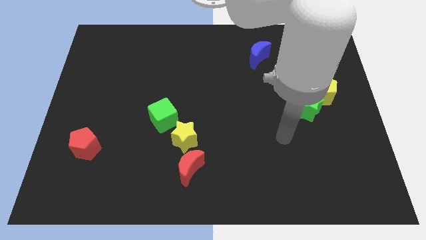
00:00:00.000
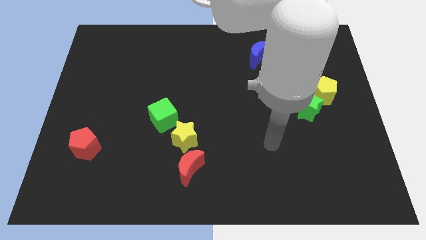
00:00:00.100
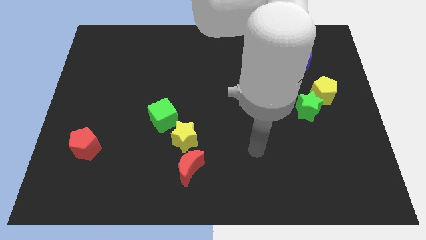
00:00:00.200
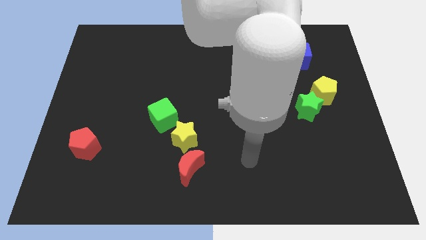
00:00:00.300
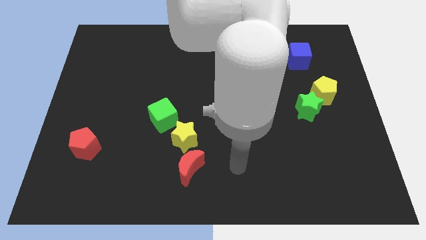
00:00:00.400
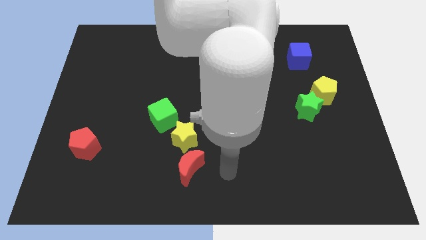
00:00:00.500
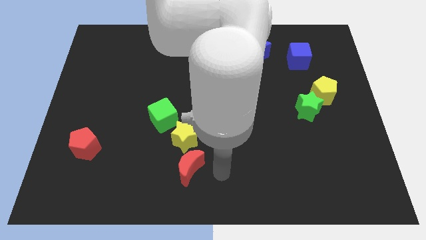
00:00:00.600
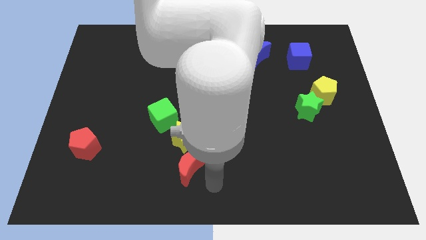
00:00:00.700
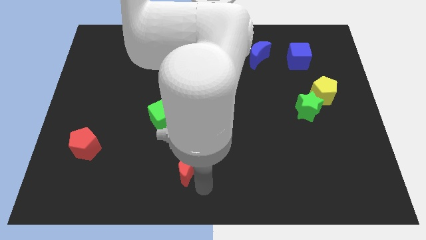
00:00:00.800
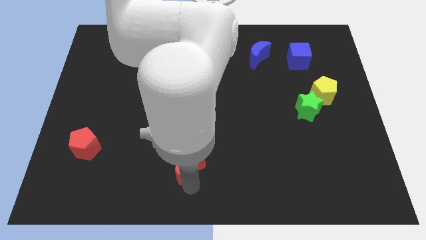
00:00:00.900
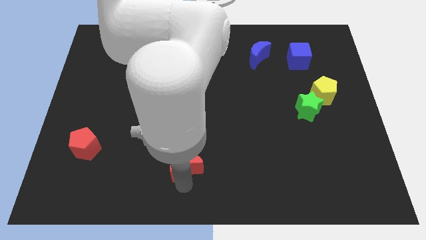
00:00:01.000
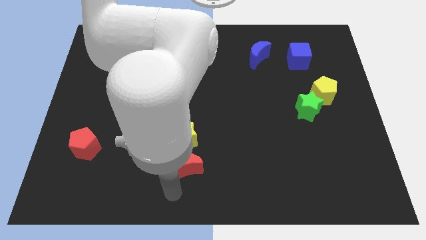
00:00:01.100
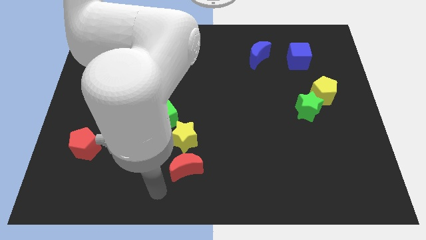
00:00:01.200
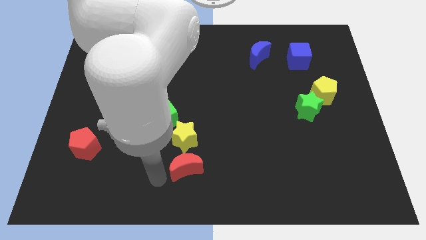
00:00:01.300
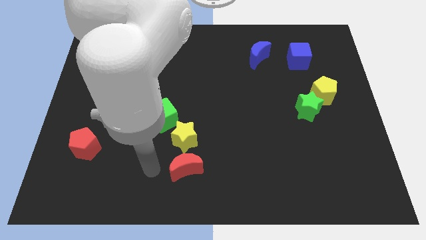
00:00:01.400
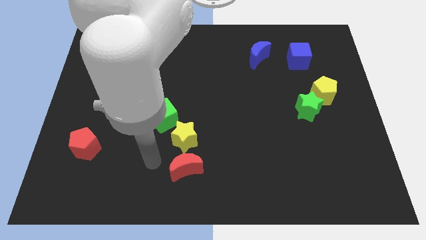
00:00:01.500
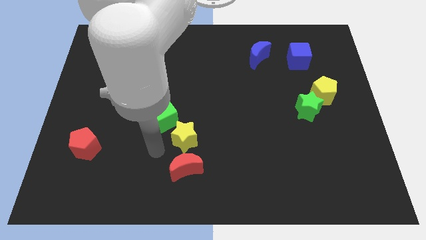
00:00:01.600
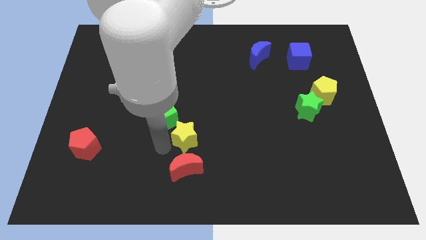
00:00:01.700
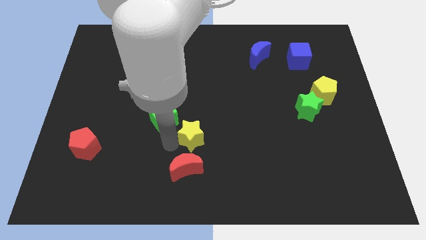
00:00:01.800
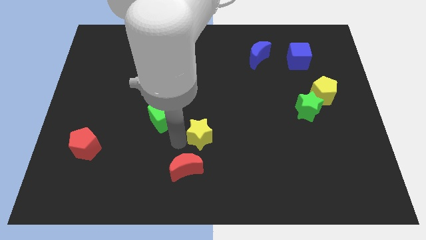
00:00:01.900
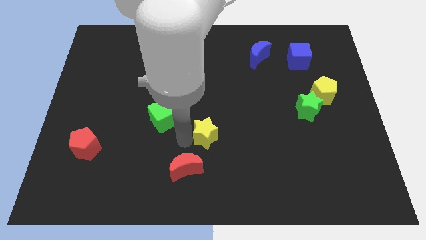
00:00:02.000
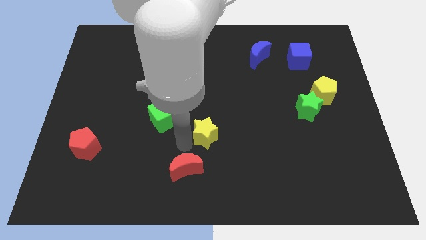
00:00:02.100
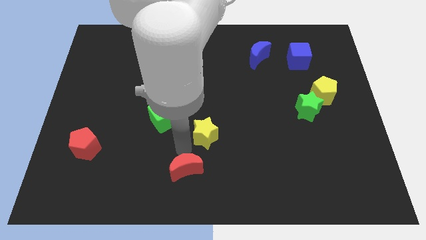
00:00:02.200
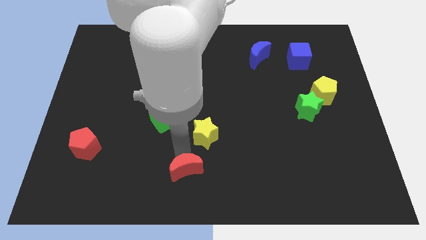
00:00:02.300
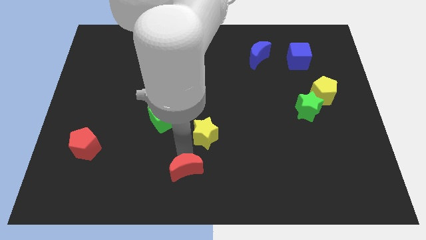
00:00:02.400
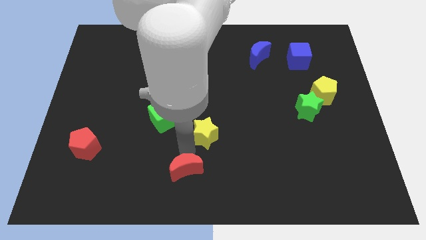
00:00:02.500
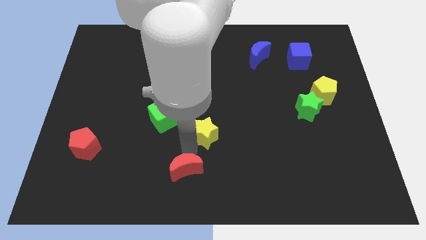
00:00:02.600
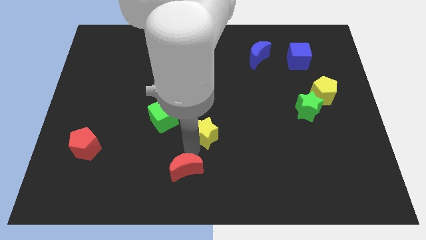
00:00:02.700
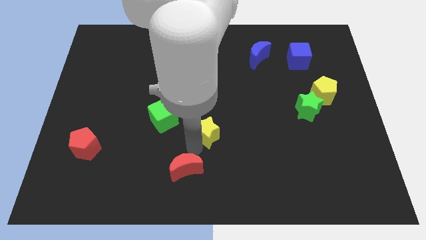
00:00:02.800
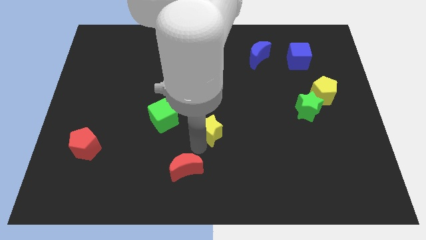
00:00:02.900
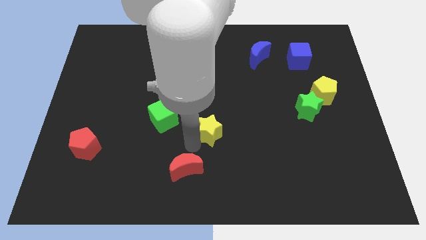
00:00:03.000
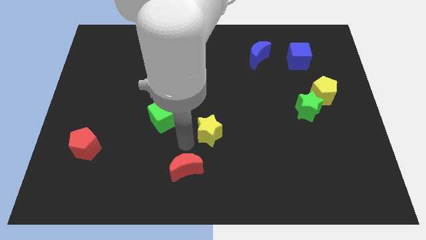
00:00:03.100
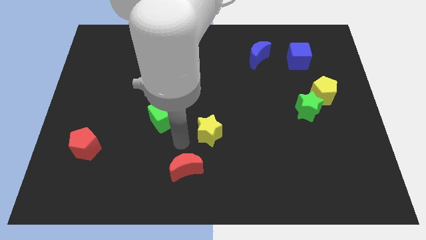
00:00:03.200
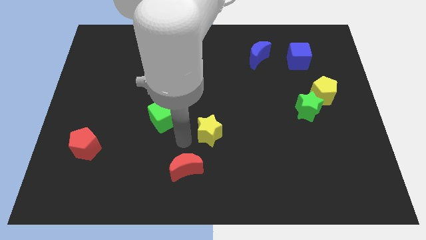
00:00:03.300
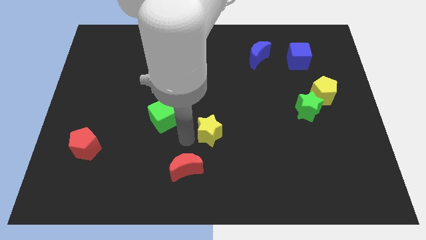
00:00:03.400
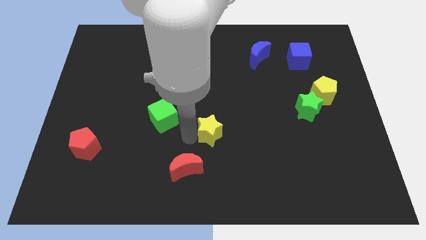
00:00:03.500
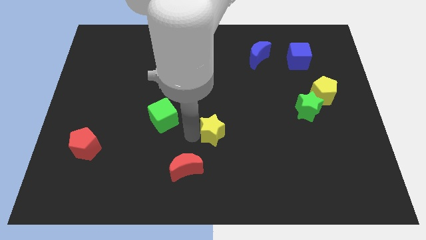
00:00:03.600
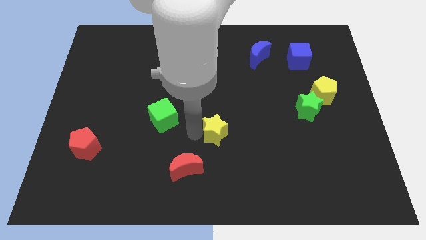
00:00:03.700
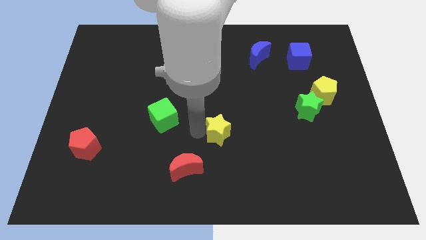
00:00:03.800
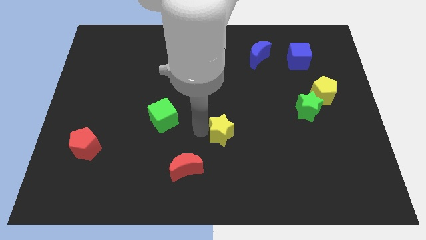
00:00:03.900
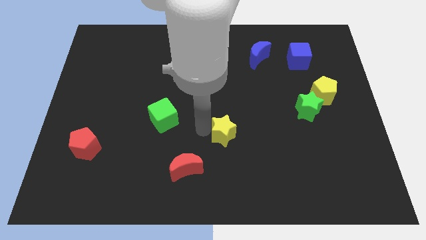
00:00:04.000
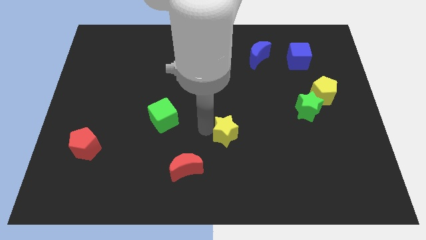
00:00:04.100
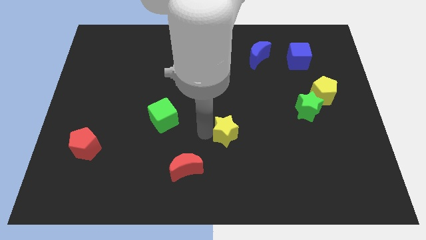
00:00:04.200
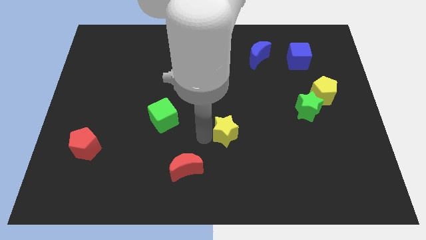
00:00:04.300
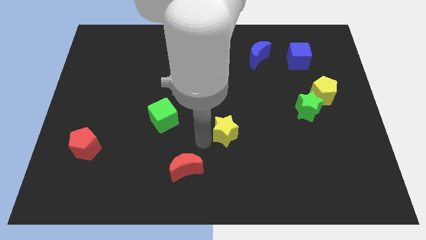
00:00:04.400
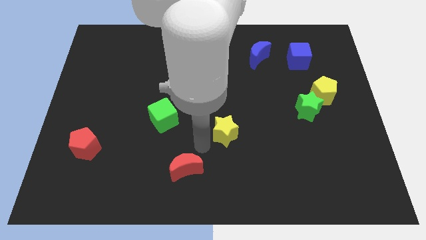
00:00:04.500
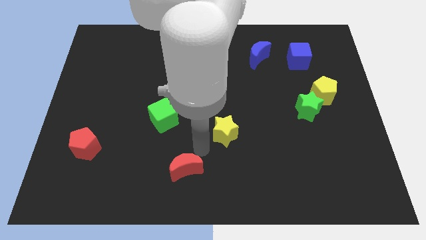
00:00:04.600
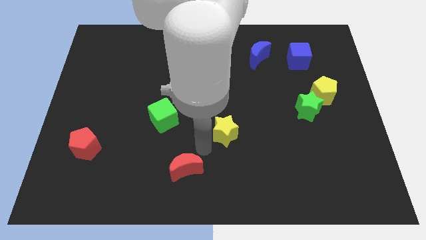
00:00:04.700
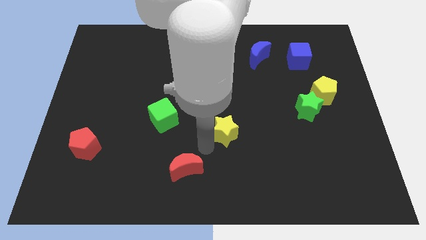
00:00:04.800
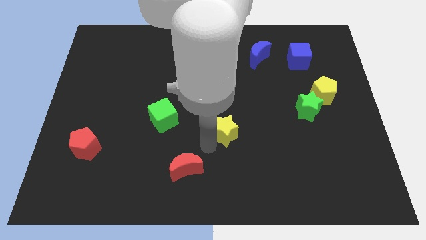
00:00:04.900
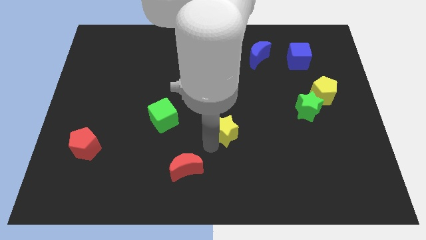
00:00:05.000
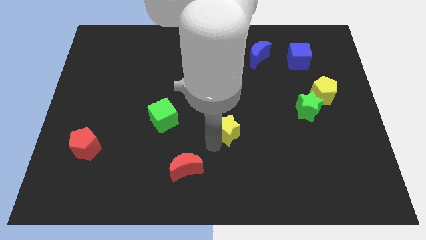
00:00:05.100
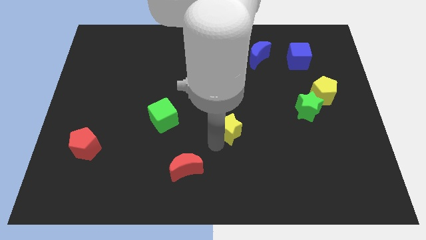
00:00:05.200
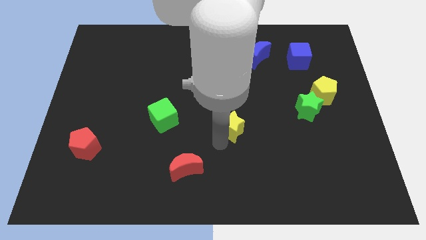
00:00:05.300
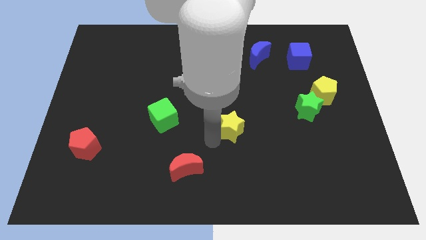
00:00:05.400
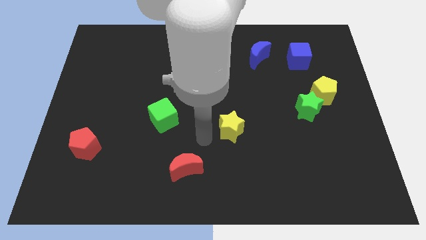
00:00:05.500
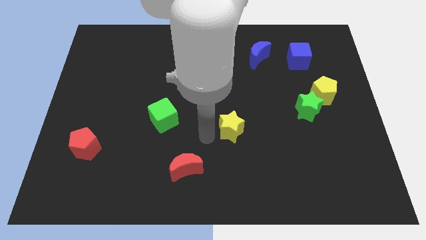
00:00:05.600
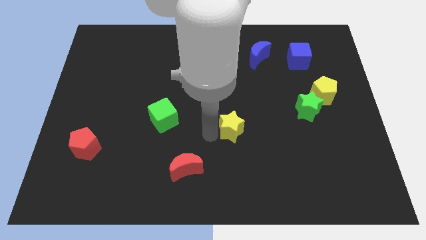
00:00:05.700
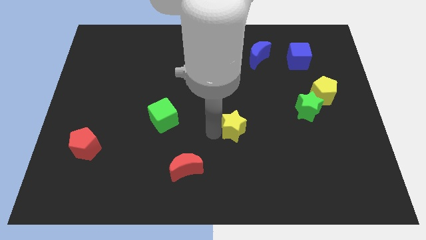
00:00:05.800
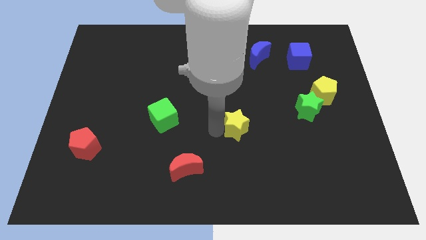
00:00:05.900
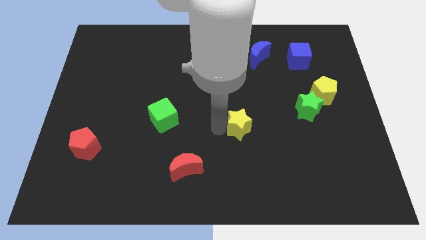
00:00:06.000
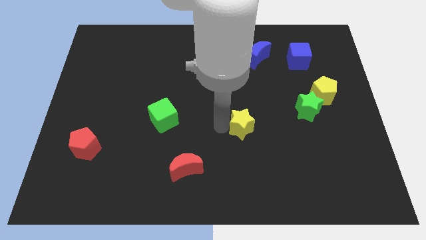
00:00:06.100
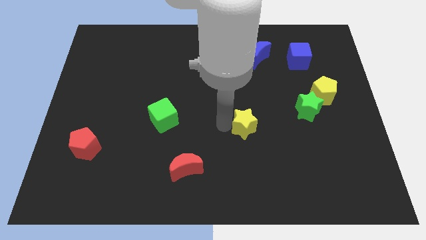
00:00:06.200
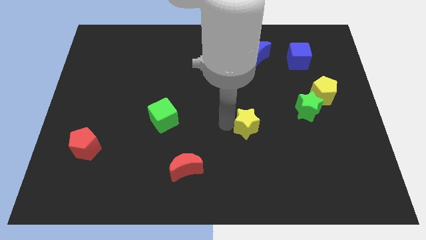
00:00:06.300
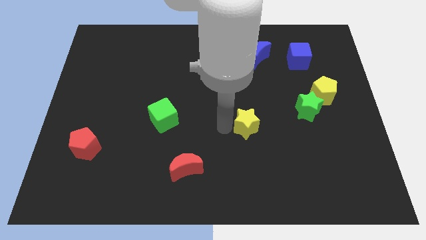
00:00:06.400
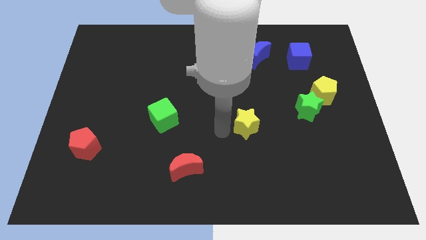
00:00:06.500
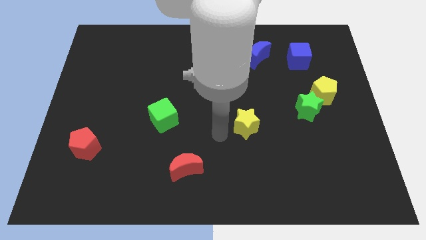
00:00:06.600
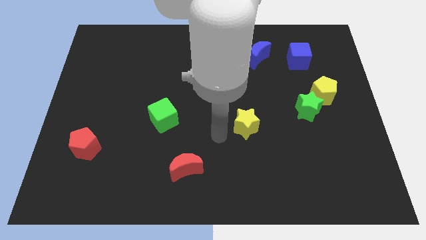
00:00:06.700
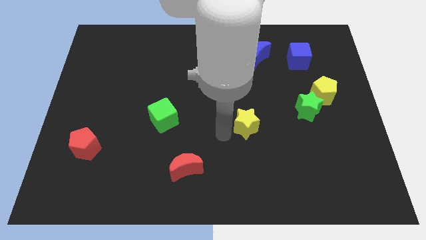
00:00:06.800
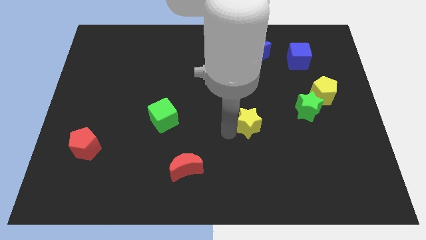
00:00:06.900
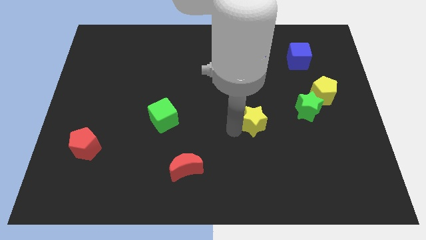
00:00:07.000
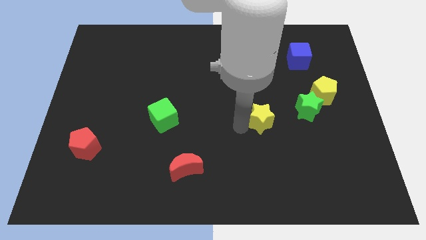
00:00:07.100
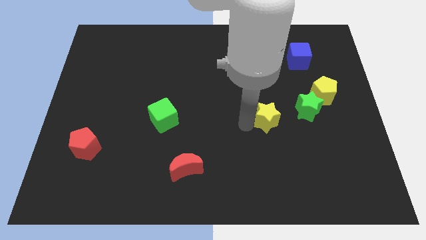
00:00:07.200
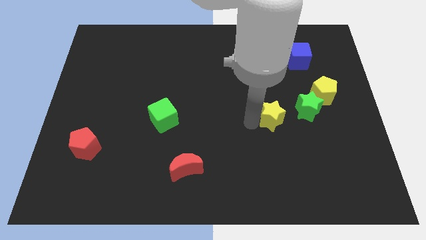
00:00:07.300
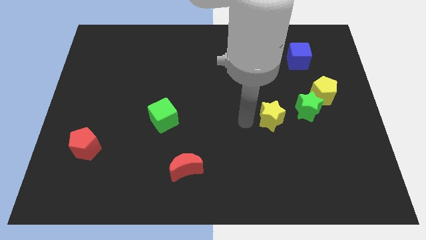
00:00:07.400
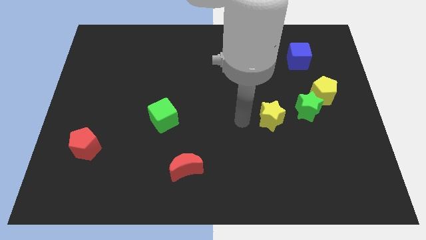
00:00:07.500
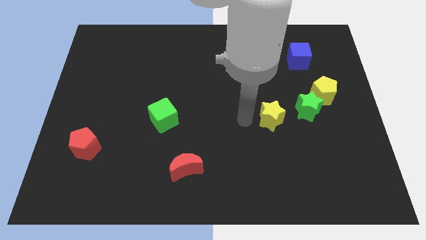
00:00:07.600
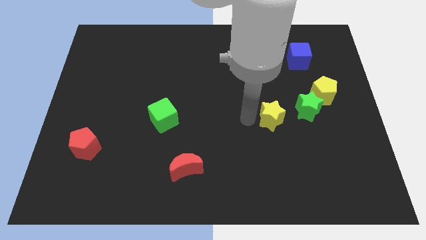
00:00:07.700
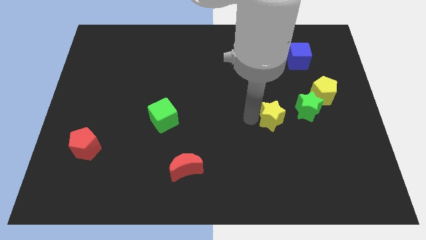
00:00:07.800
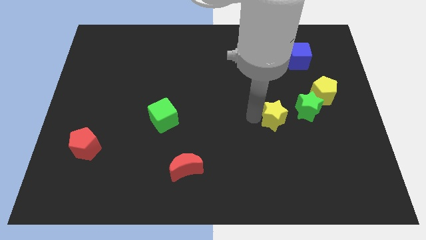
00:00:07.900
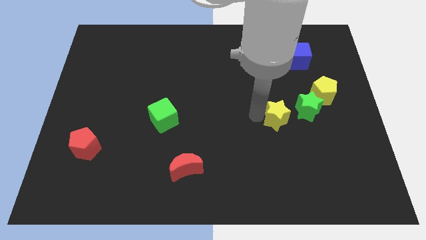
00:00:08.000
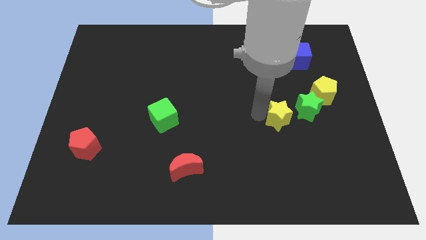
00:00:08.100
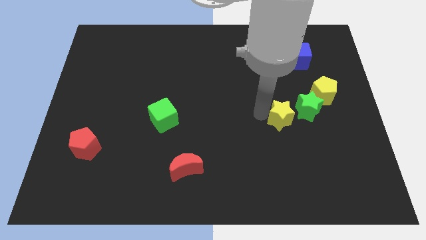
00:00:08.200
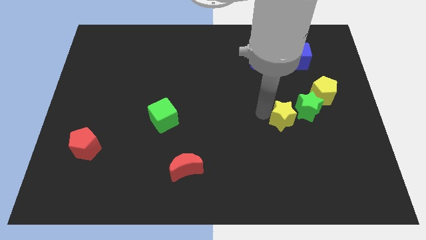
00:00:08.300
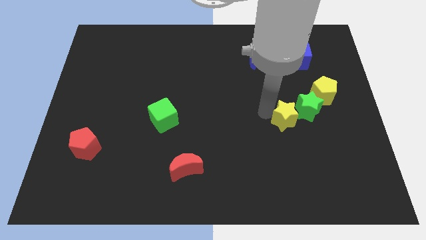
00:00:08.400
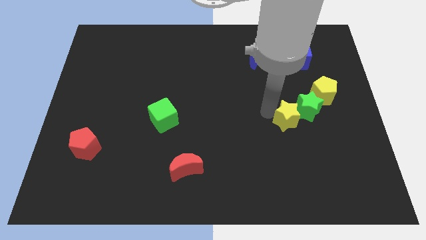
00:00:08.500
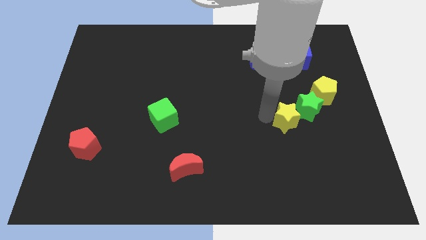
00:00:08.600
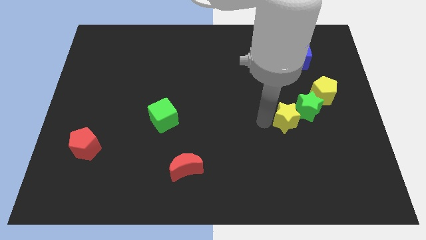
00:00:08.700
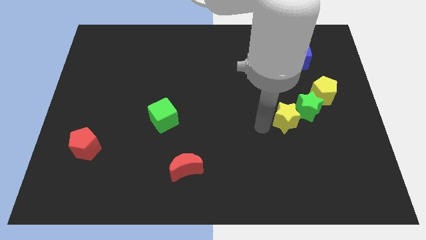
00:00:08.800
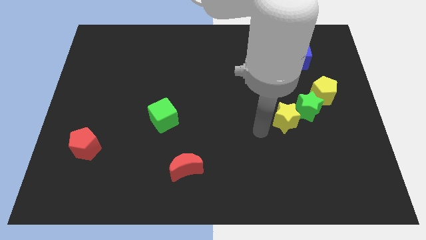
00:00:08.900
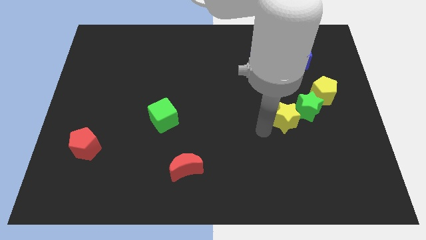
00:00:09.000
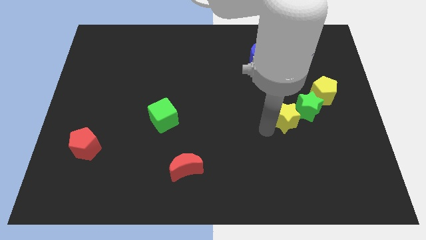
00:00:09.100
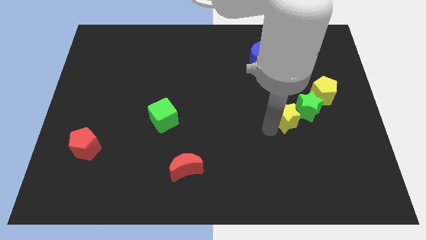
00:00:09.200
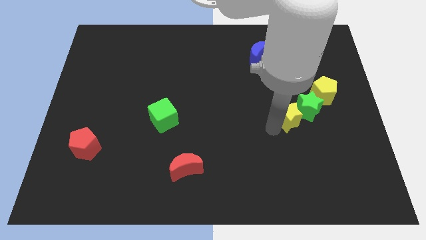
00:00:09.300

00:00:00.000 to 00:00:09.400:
push the yellow star next to the green star
